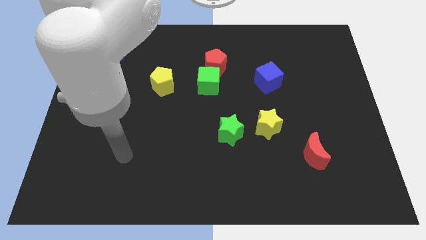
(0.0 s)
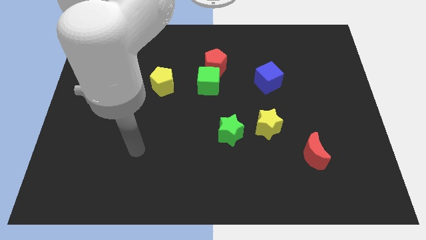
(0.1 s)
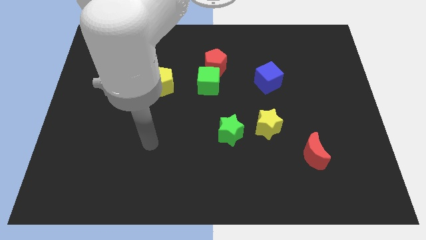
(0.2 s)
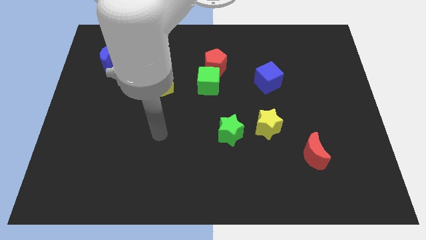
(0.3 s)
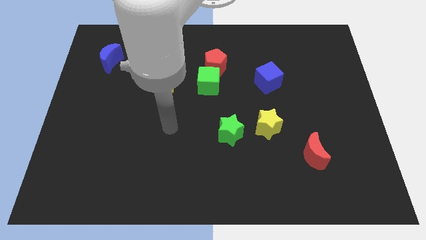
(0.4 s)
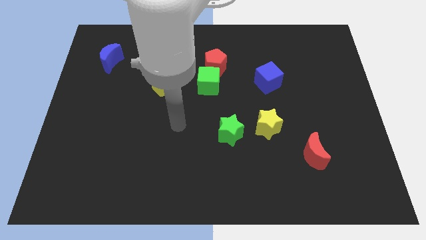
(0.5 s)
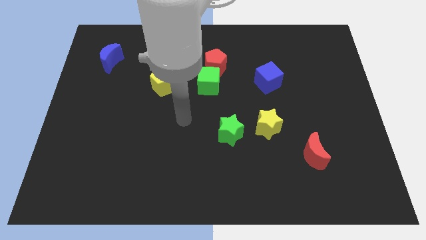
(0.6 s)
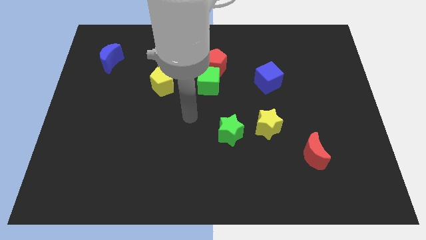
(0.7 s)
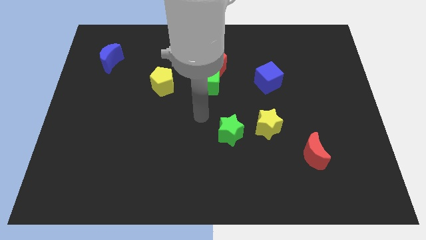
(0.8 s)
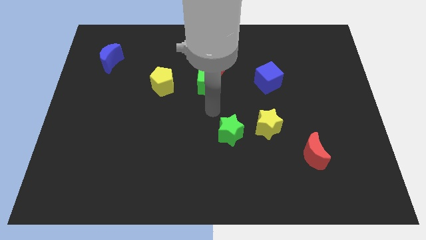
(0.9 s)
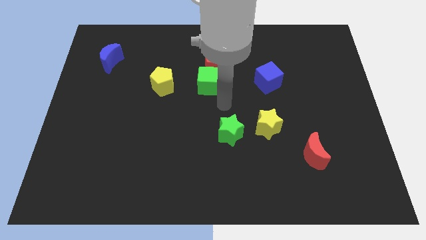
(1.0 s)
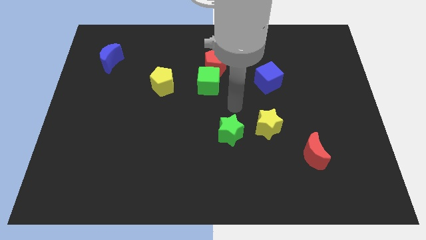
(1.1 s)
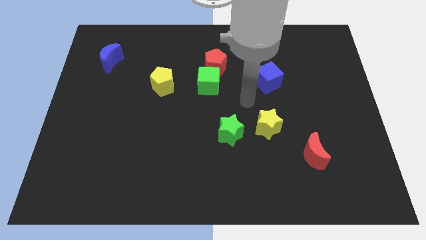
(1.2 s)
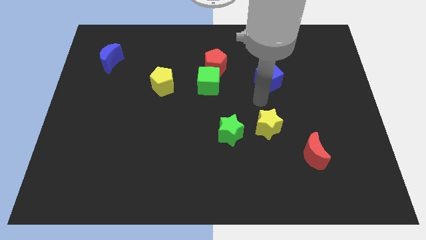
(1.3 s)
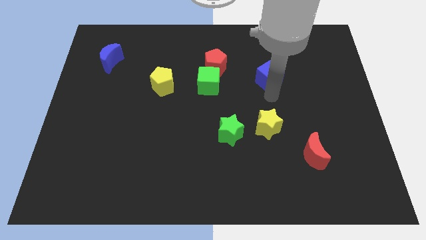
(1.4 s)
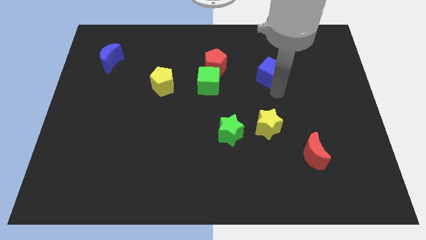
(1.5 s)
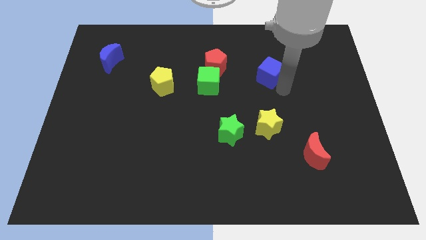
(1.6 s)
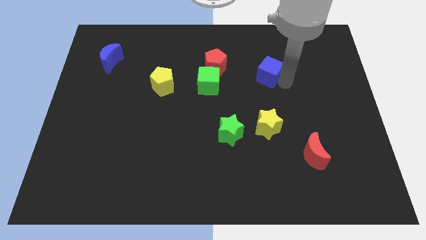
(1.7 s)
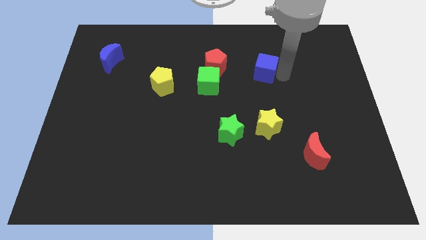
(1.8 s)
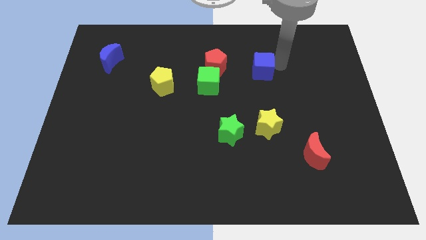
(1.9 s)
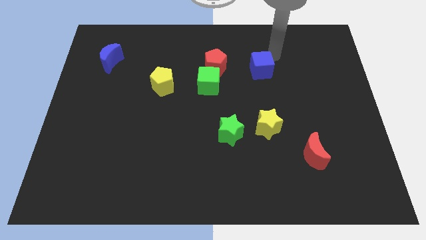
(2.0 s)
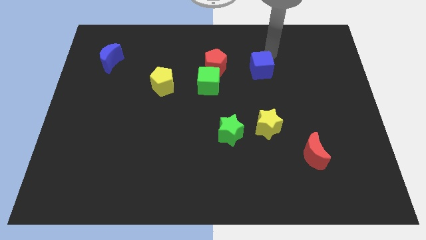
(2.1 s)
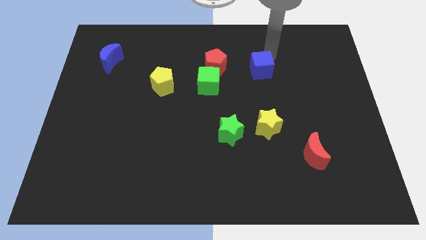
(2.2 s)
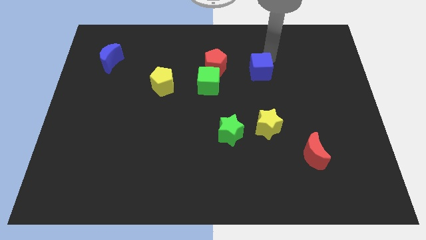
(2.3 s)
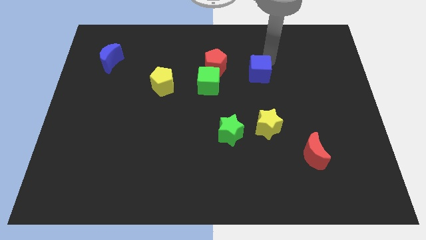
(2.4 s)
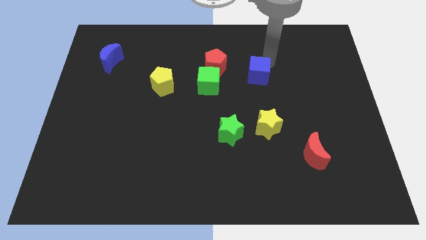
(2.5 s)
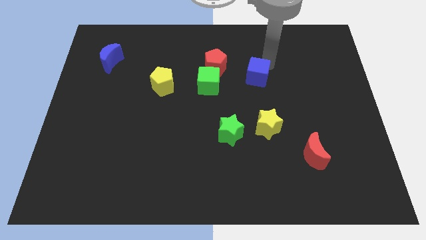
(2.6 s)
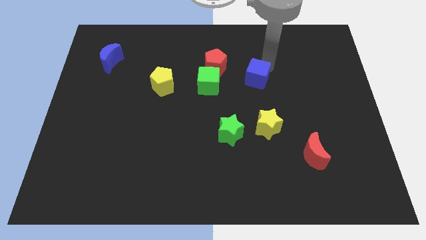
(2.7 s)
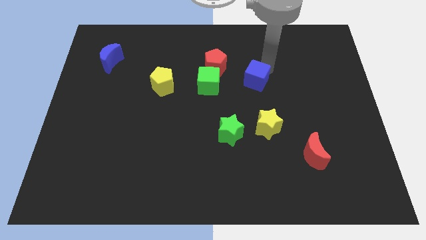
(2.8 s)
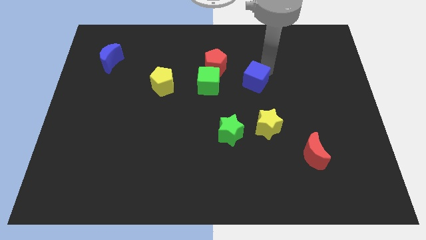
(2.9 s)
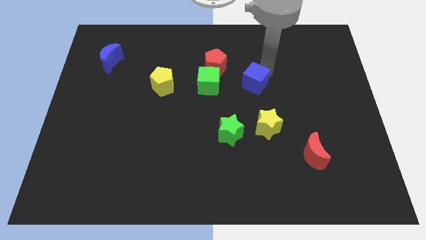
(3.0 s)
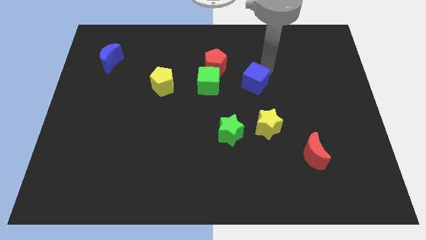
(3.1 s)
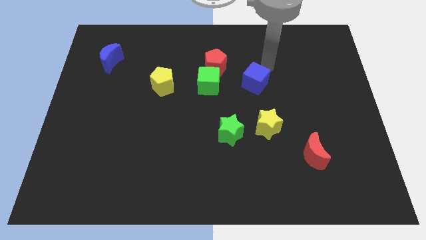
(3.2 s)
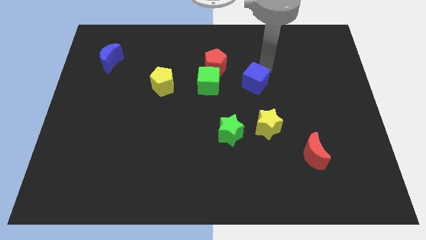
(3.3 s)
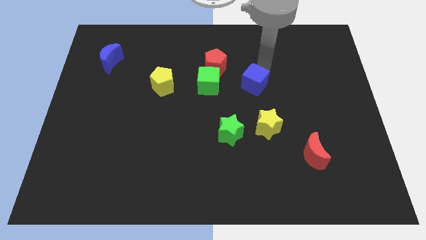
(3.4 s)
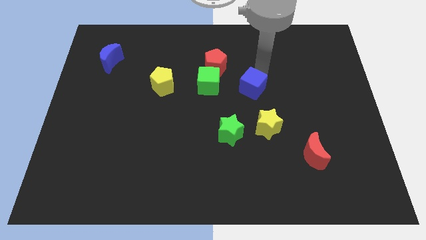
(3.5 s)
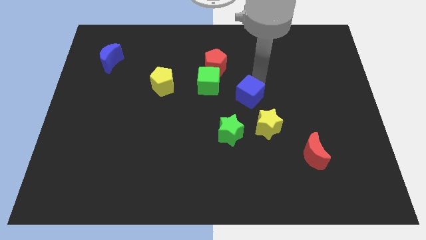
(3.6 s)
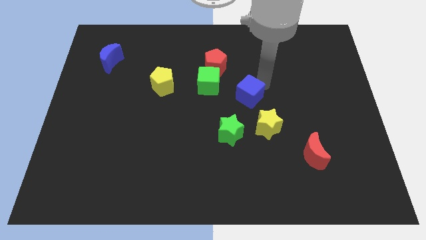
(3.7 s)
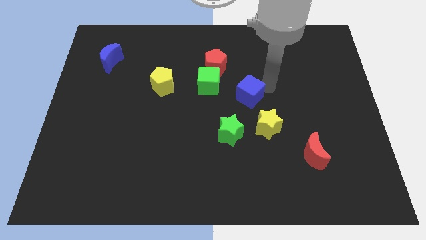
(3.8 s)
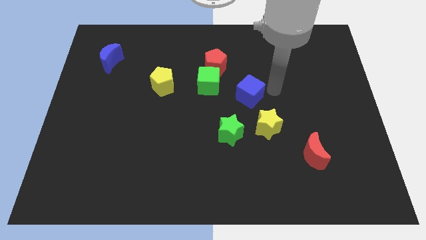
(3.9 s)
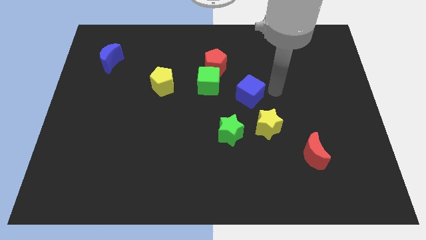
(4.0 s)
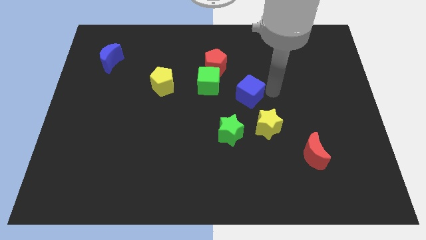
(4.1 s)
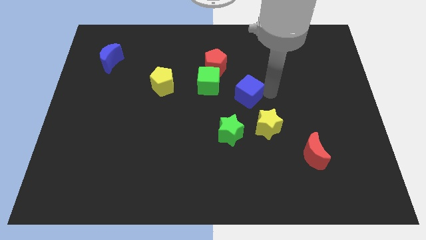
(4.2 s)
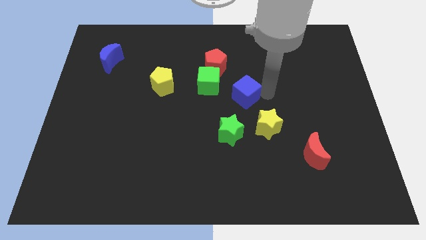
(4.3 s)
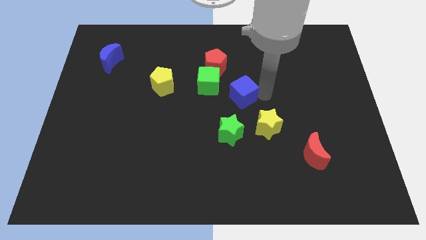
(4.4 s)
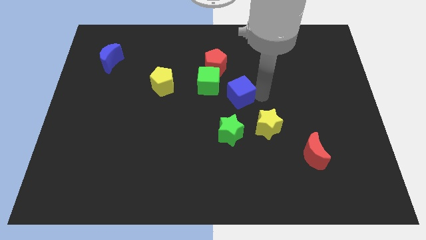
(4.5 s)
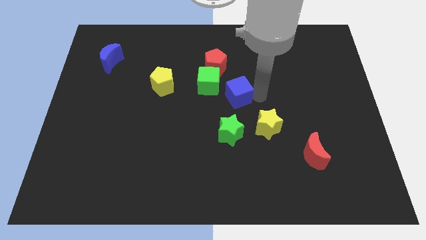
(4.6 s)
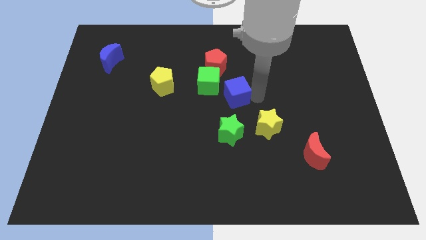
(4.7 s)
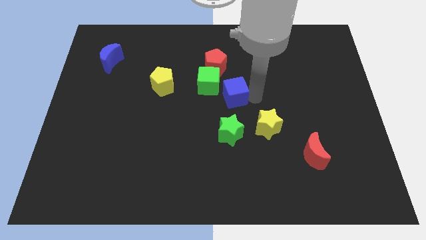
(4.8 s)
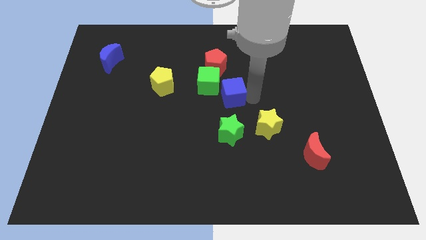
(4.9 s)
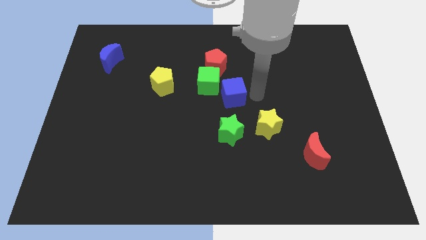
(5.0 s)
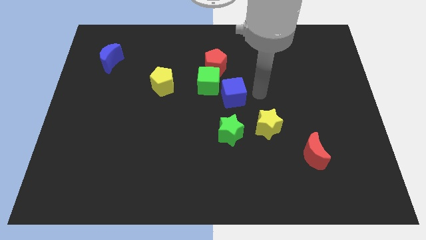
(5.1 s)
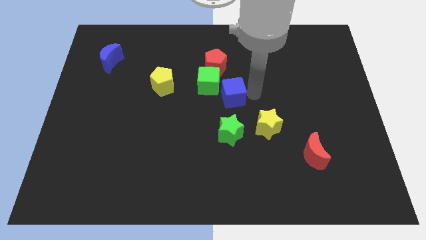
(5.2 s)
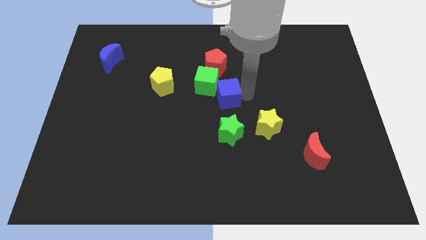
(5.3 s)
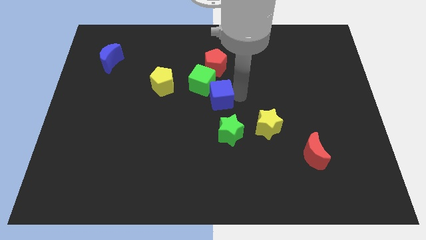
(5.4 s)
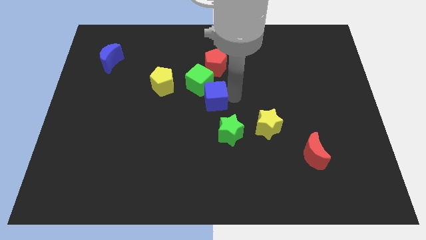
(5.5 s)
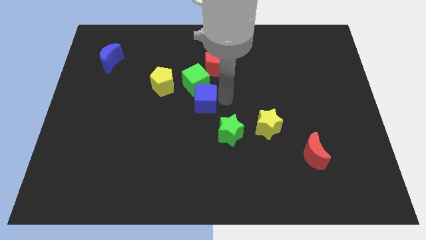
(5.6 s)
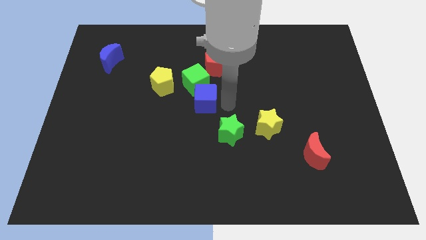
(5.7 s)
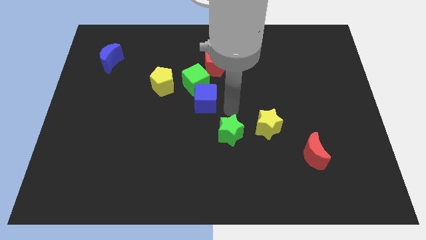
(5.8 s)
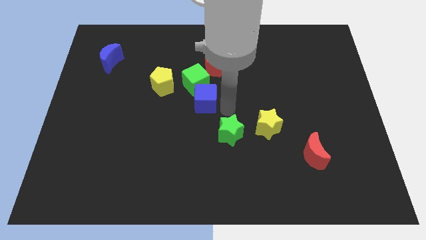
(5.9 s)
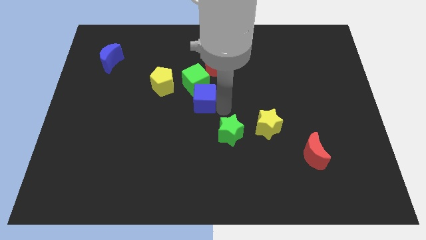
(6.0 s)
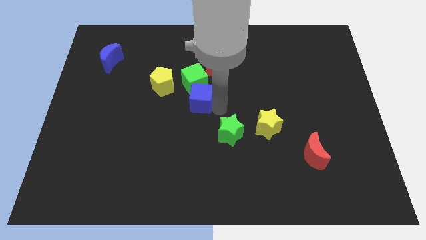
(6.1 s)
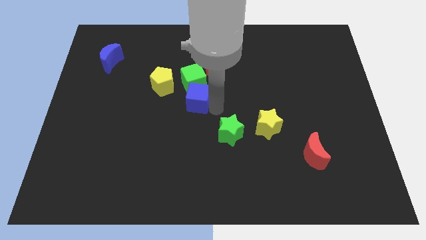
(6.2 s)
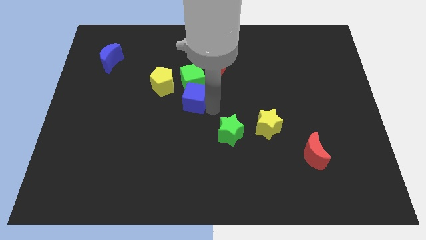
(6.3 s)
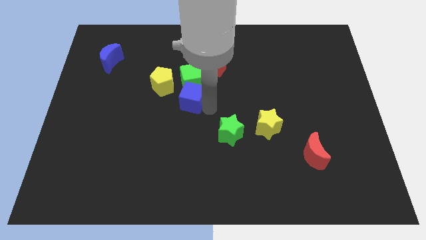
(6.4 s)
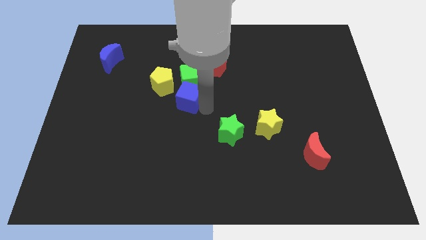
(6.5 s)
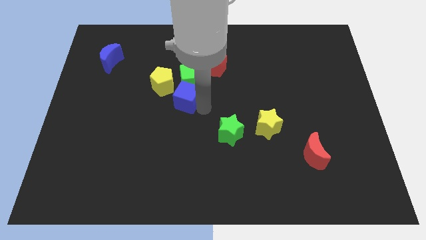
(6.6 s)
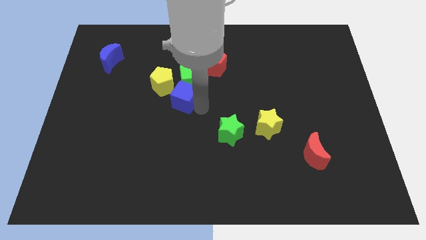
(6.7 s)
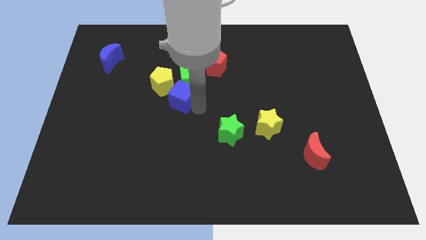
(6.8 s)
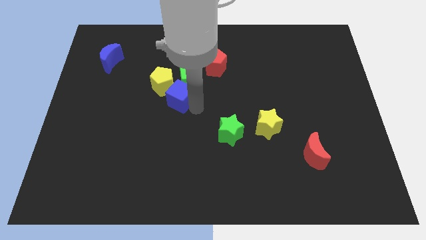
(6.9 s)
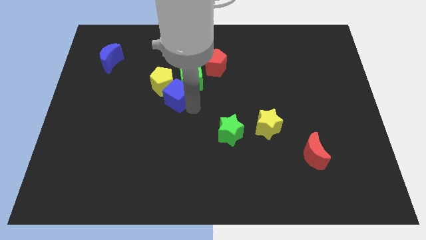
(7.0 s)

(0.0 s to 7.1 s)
put the blue cube close to the yellow pentagon

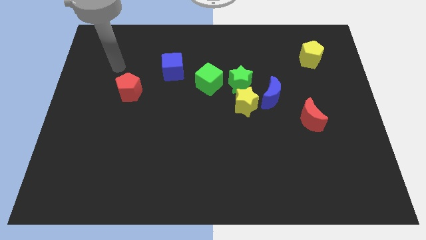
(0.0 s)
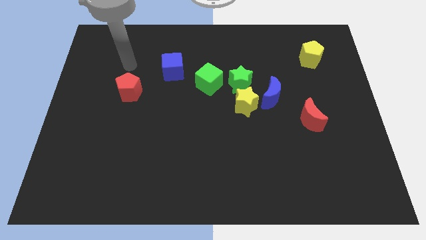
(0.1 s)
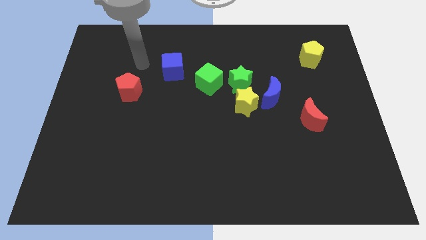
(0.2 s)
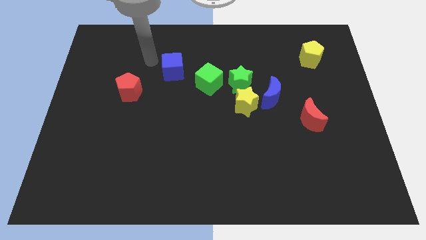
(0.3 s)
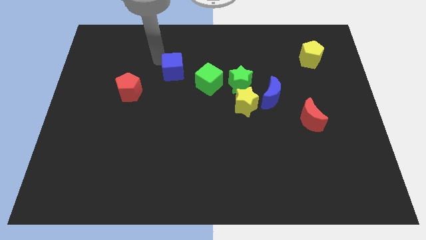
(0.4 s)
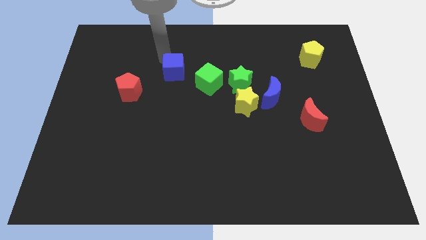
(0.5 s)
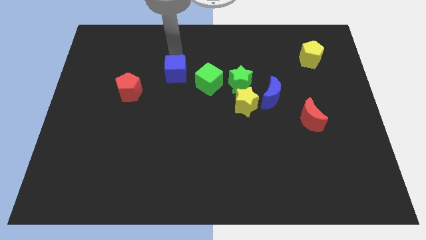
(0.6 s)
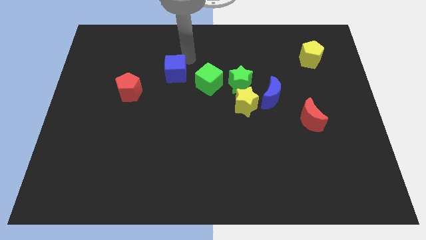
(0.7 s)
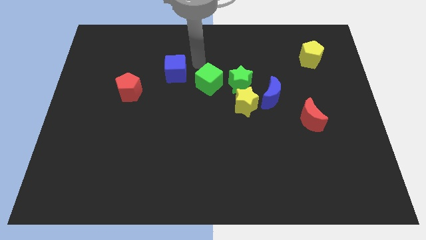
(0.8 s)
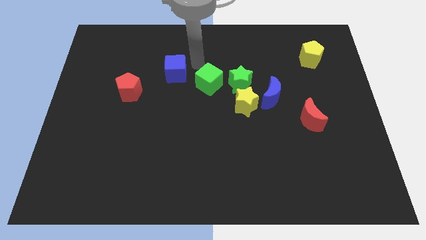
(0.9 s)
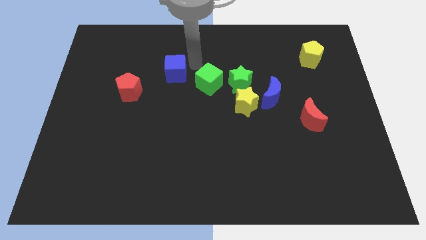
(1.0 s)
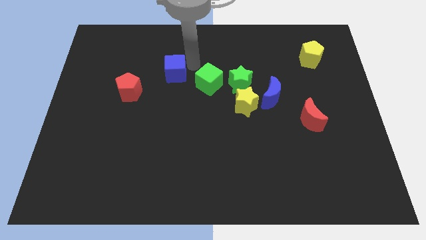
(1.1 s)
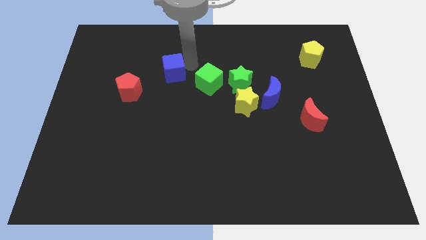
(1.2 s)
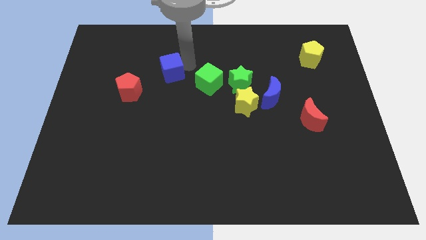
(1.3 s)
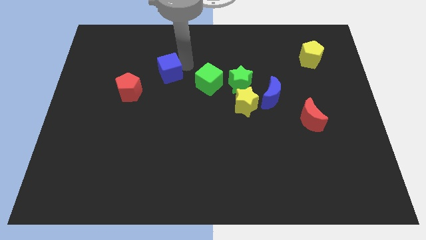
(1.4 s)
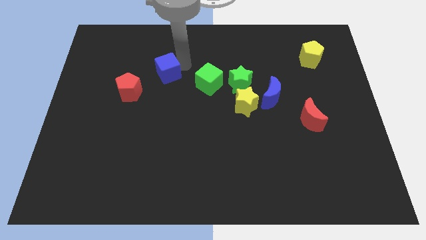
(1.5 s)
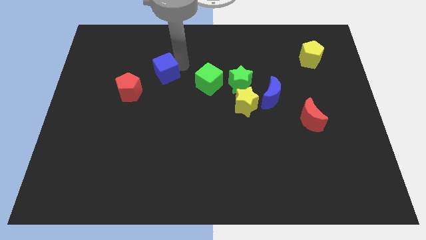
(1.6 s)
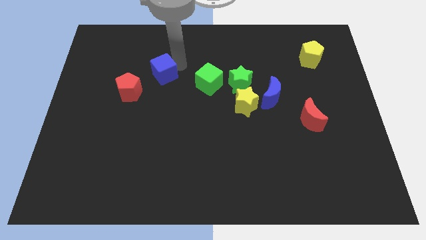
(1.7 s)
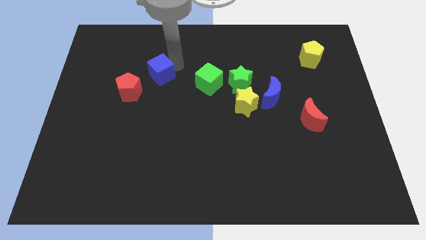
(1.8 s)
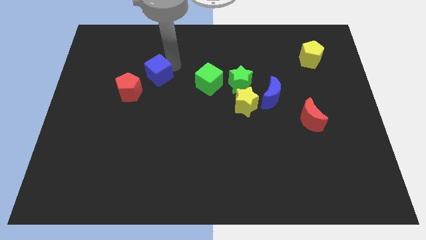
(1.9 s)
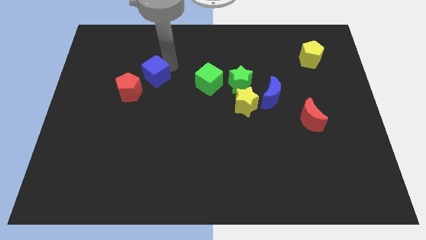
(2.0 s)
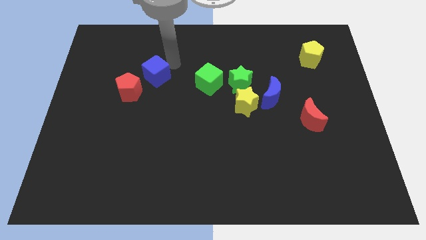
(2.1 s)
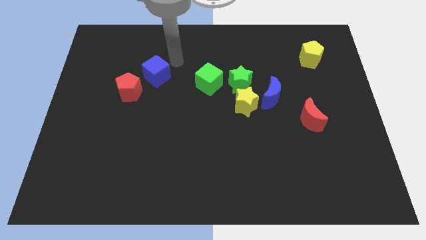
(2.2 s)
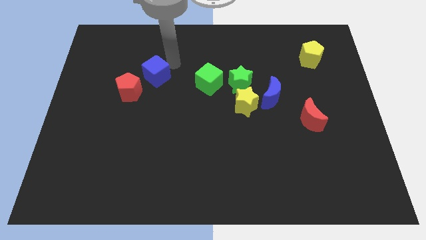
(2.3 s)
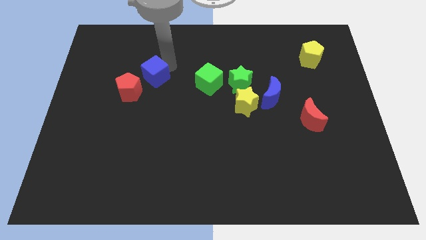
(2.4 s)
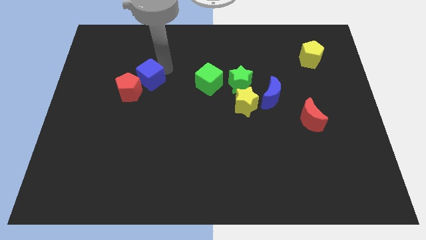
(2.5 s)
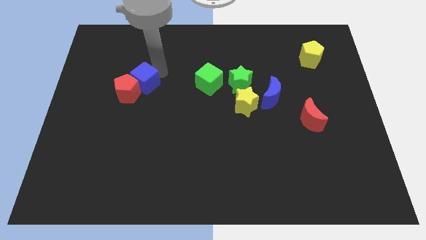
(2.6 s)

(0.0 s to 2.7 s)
push the blue cube towards the red pentagon
